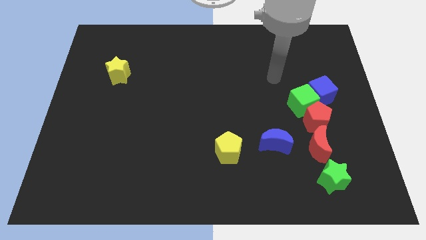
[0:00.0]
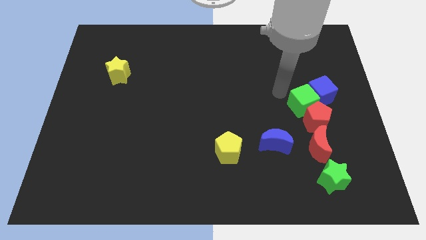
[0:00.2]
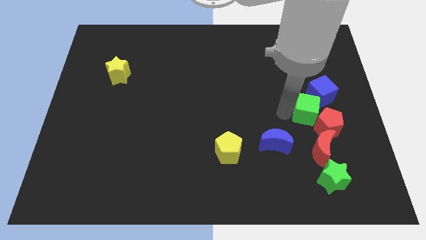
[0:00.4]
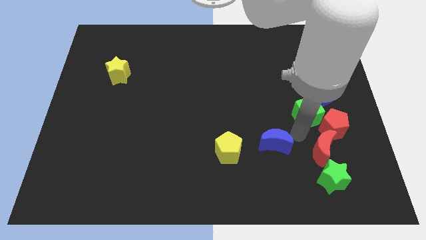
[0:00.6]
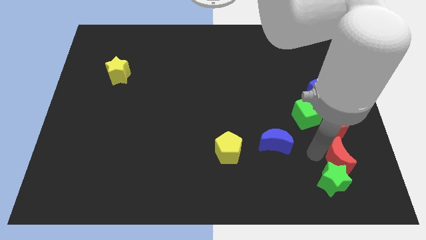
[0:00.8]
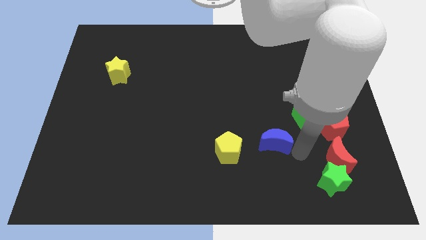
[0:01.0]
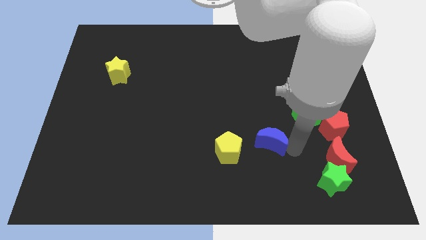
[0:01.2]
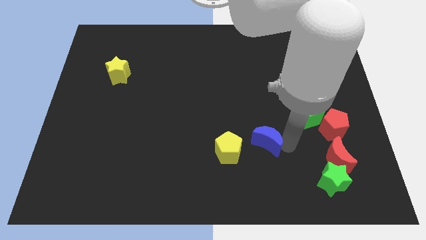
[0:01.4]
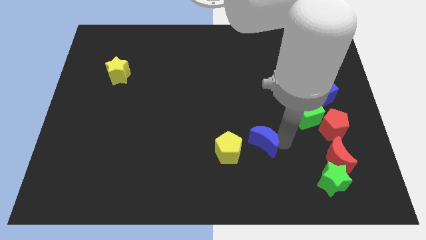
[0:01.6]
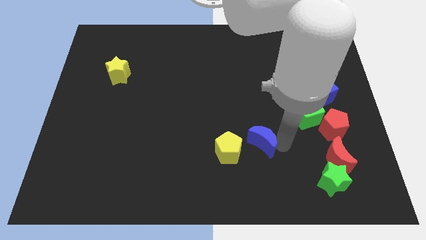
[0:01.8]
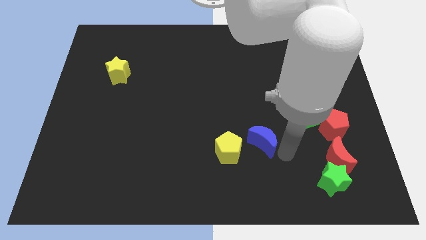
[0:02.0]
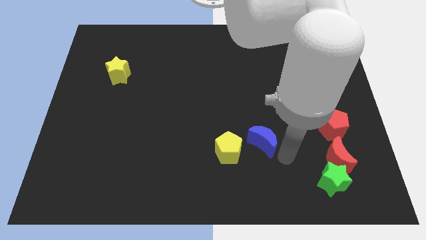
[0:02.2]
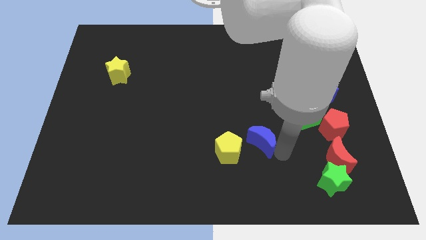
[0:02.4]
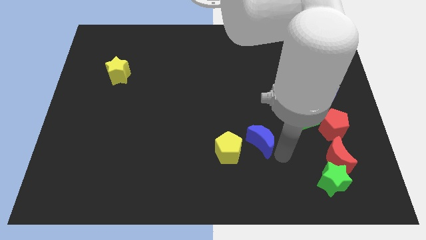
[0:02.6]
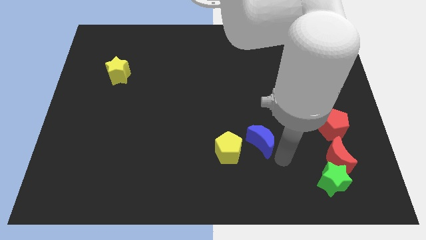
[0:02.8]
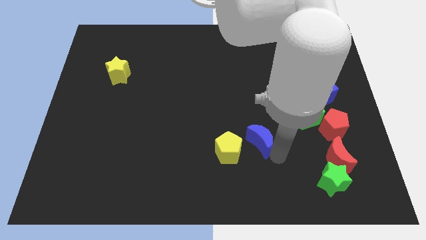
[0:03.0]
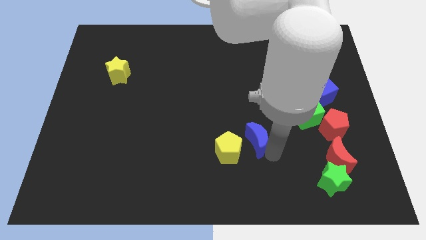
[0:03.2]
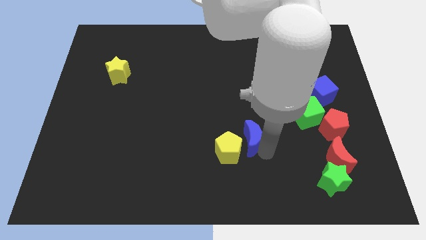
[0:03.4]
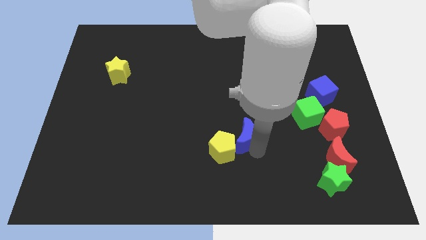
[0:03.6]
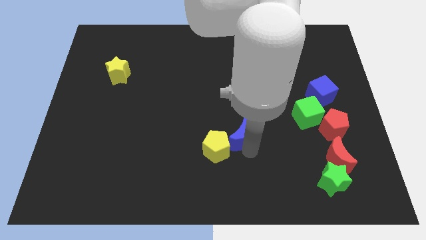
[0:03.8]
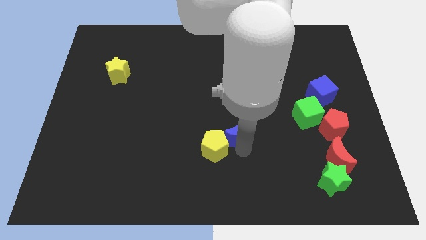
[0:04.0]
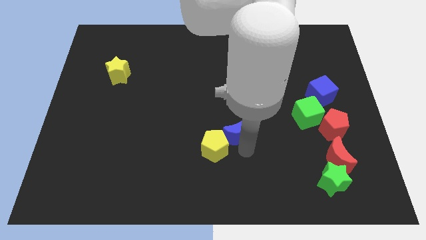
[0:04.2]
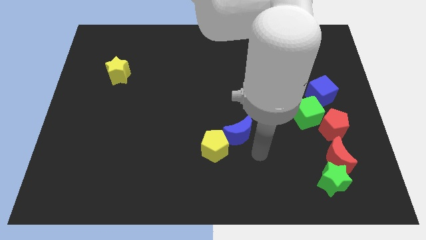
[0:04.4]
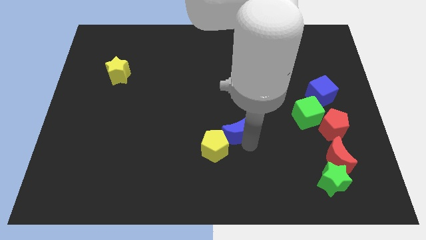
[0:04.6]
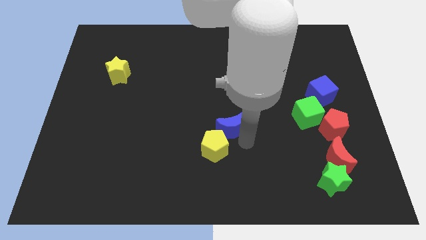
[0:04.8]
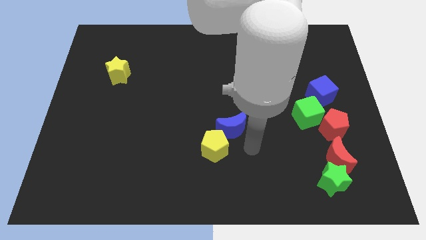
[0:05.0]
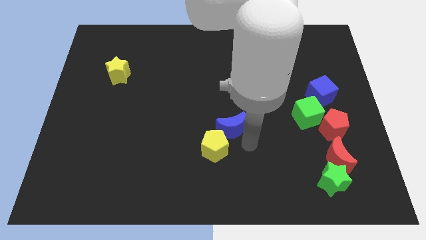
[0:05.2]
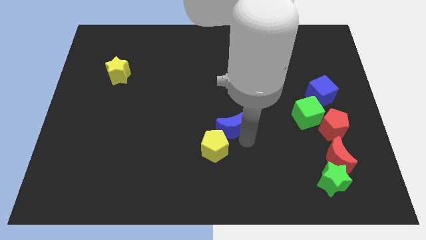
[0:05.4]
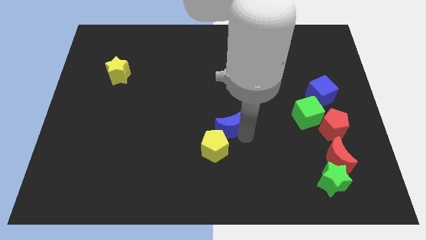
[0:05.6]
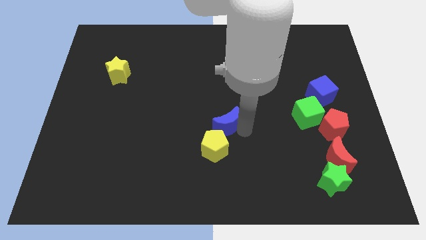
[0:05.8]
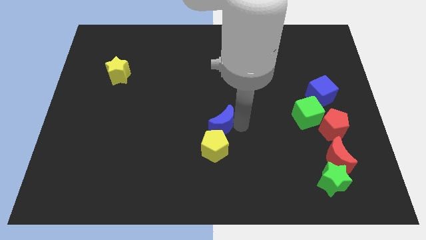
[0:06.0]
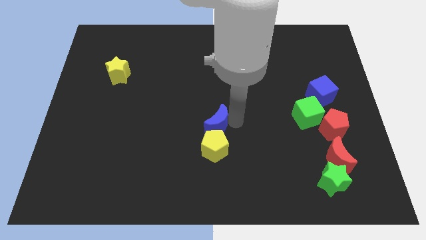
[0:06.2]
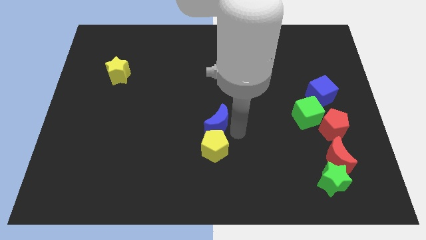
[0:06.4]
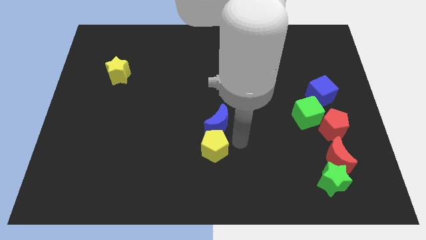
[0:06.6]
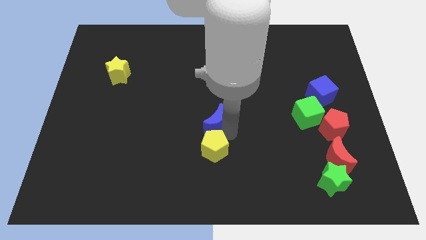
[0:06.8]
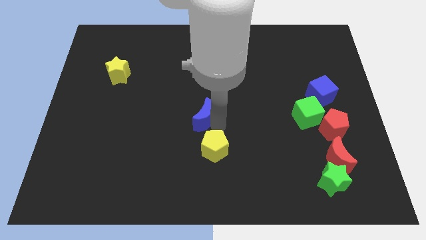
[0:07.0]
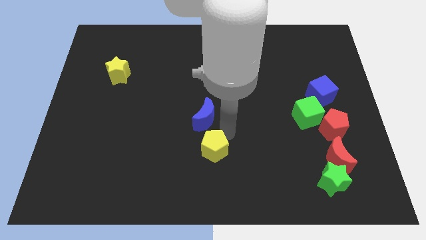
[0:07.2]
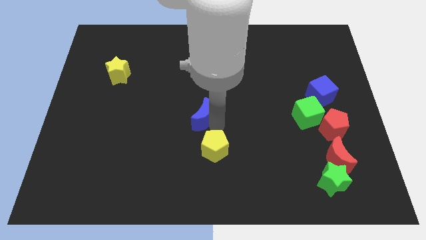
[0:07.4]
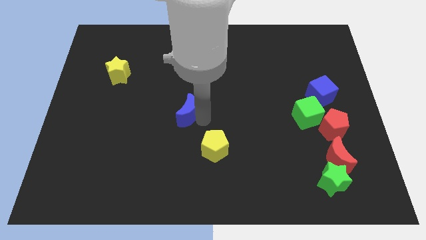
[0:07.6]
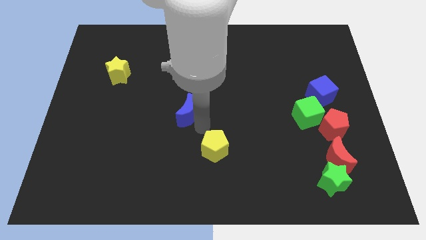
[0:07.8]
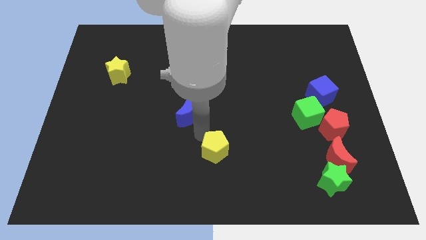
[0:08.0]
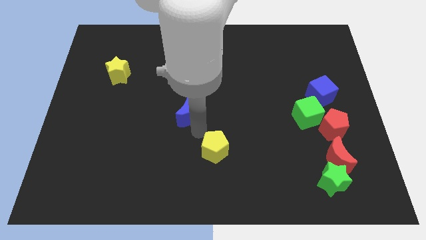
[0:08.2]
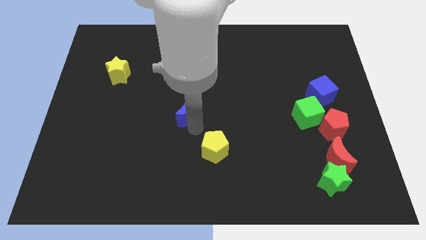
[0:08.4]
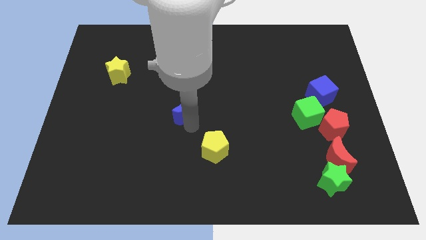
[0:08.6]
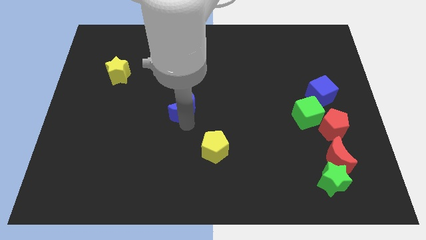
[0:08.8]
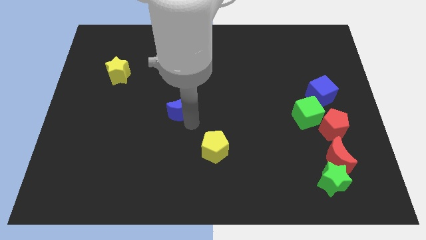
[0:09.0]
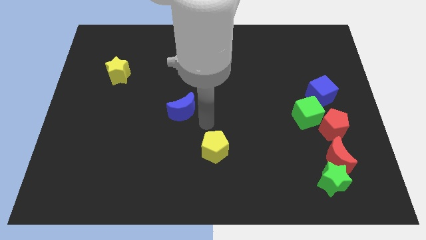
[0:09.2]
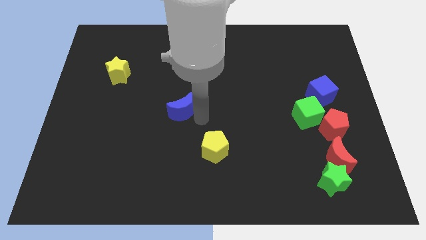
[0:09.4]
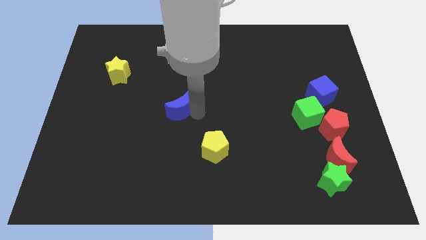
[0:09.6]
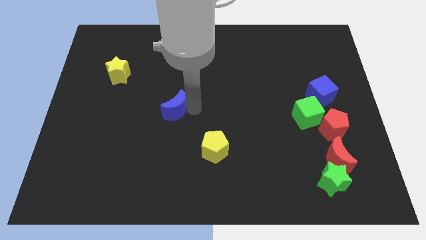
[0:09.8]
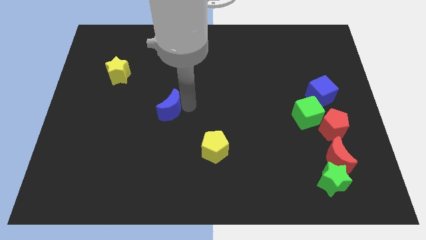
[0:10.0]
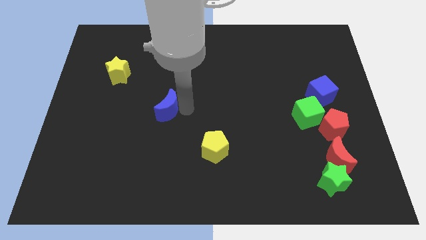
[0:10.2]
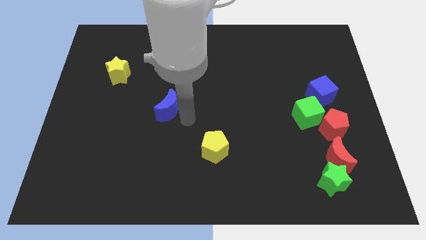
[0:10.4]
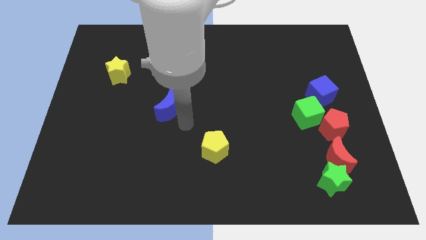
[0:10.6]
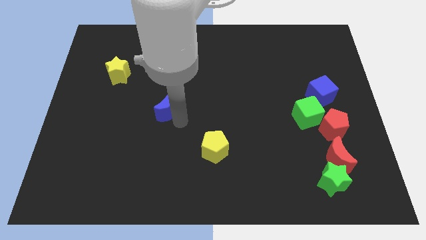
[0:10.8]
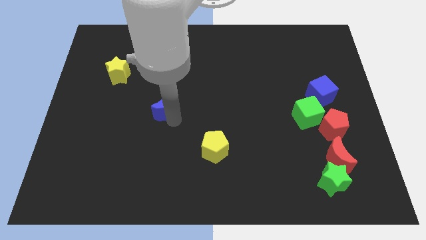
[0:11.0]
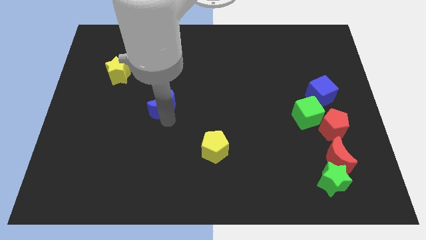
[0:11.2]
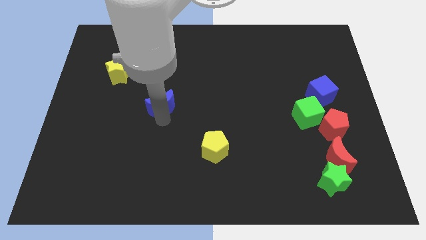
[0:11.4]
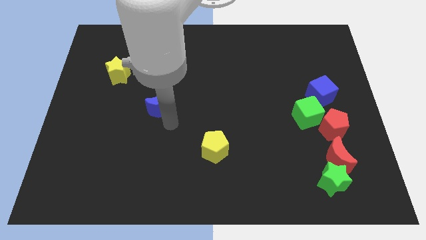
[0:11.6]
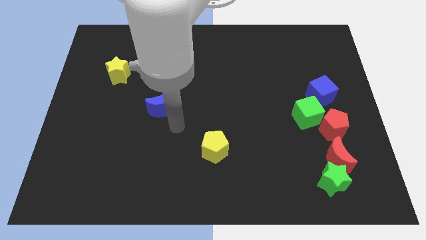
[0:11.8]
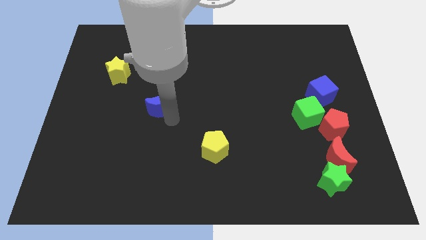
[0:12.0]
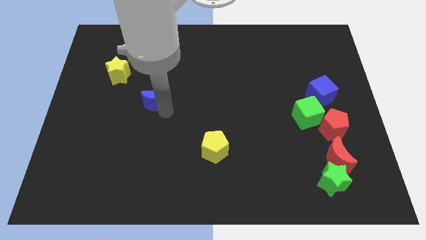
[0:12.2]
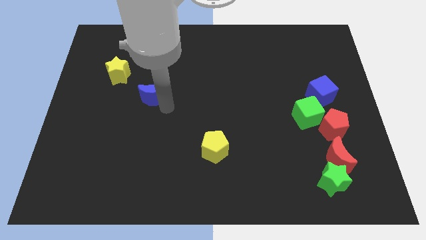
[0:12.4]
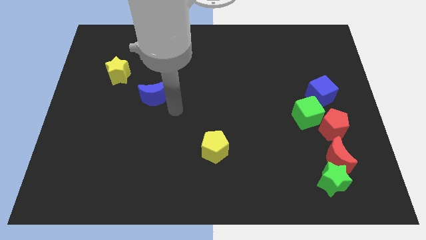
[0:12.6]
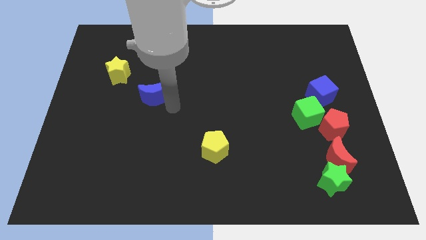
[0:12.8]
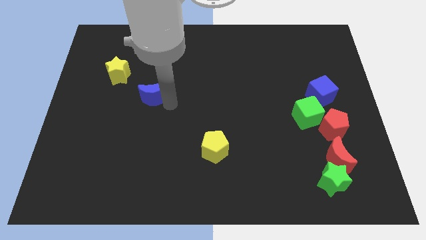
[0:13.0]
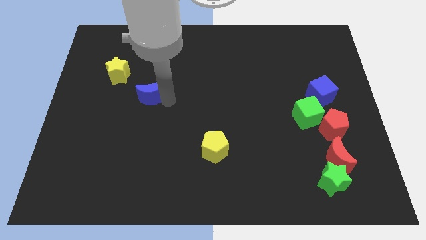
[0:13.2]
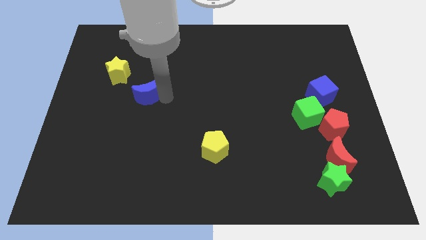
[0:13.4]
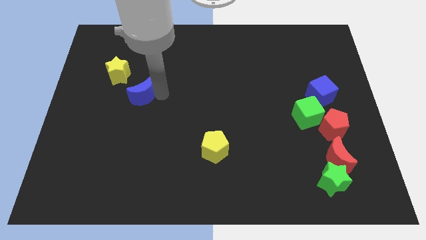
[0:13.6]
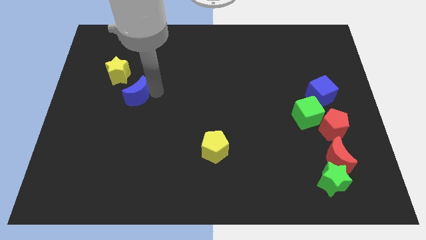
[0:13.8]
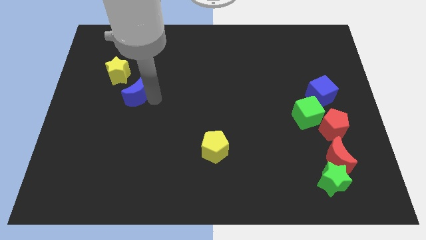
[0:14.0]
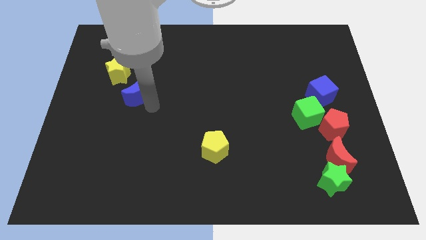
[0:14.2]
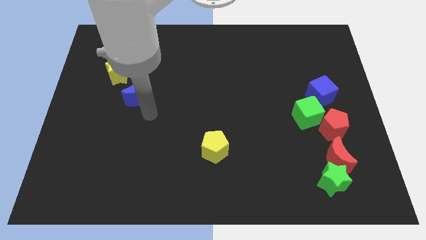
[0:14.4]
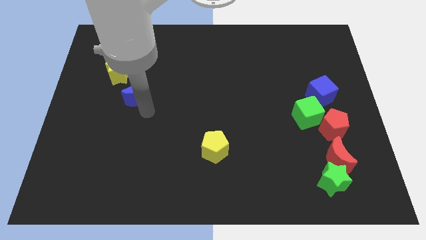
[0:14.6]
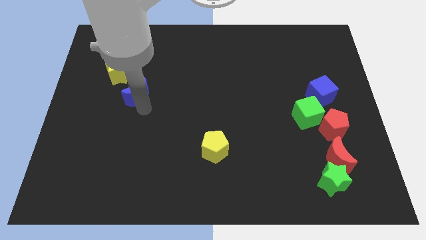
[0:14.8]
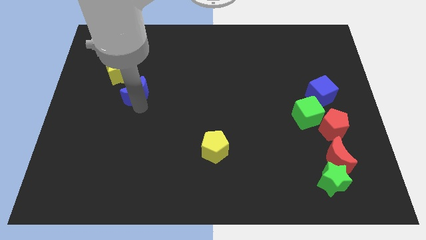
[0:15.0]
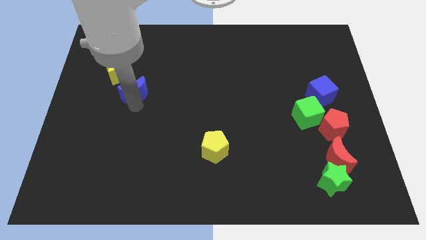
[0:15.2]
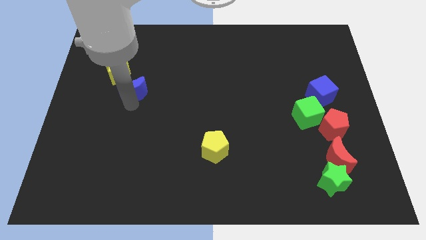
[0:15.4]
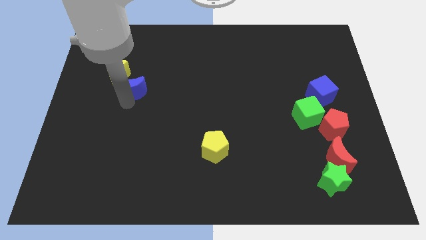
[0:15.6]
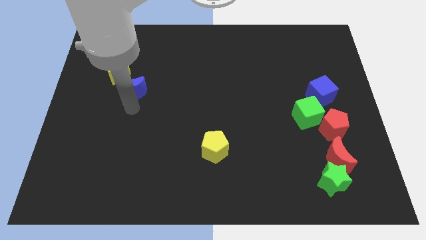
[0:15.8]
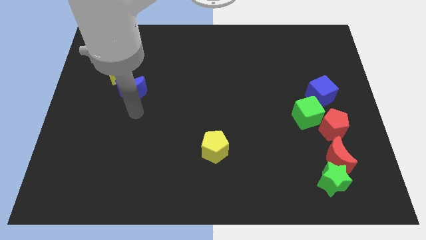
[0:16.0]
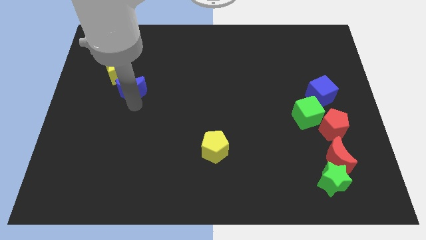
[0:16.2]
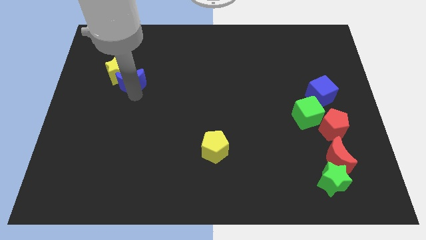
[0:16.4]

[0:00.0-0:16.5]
push the blue moon next to the yellow star
